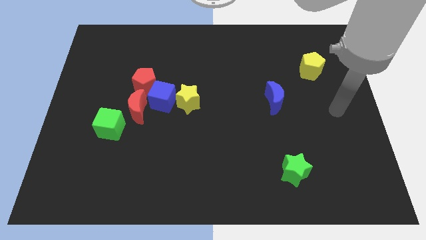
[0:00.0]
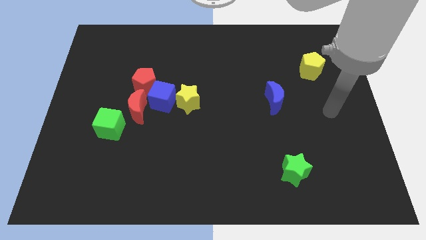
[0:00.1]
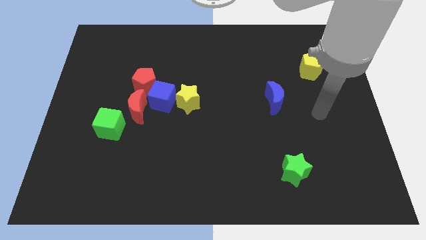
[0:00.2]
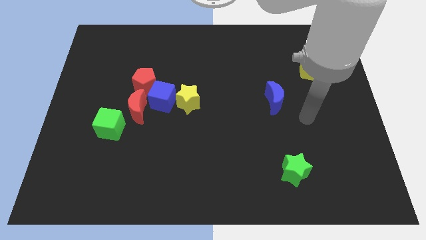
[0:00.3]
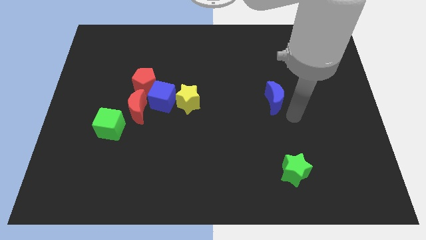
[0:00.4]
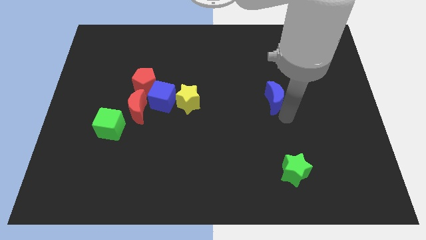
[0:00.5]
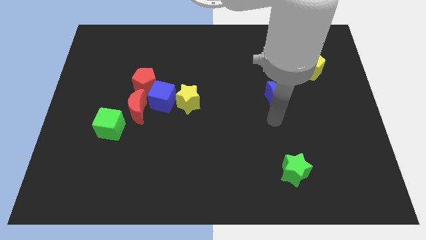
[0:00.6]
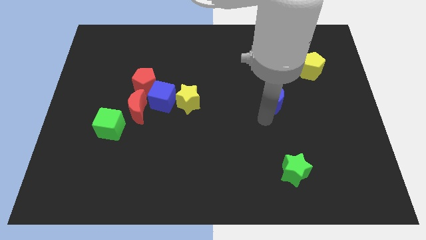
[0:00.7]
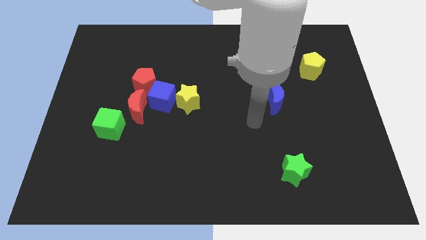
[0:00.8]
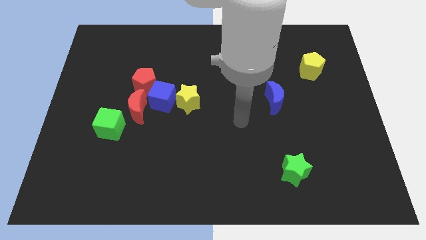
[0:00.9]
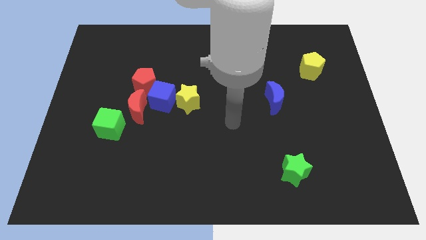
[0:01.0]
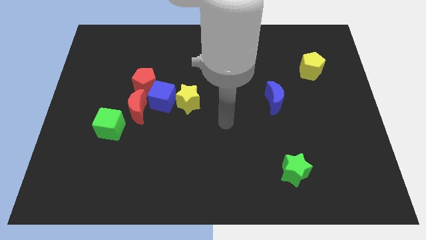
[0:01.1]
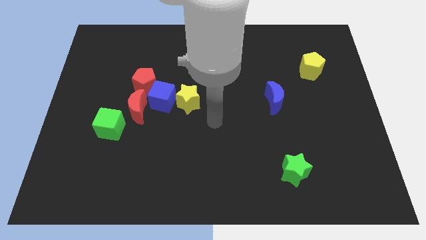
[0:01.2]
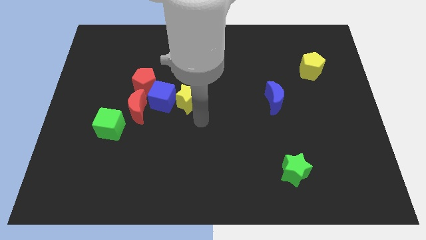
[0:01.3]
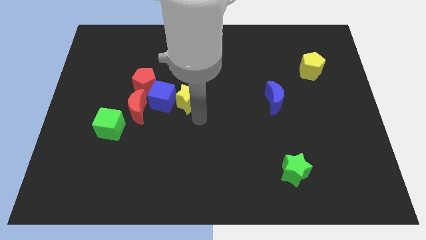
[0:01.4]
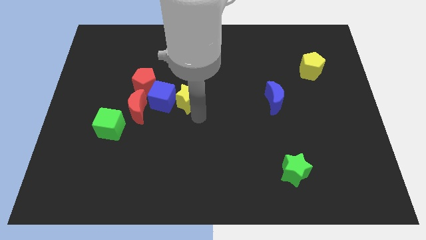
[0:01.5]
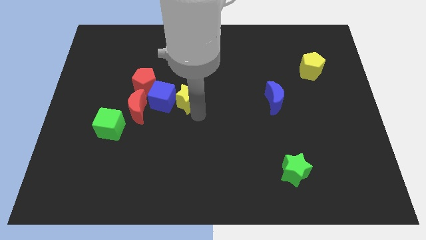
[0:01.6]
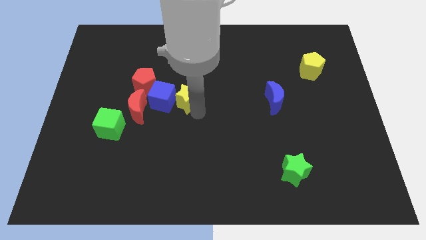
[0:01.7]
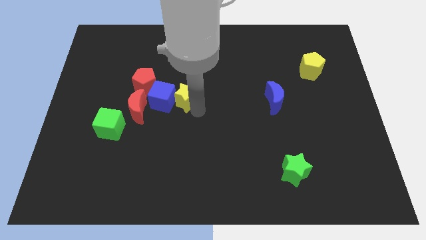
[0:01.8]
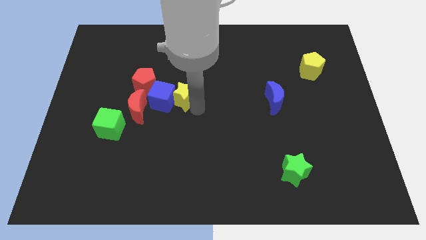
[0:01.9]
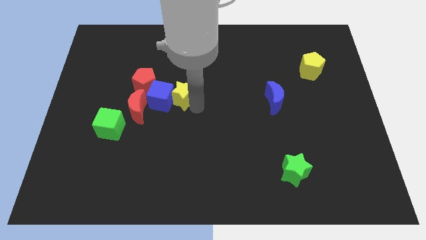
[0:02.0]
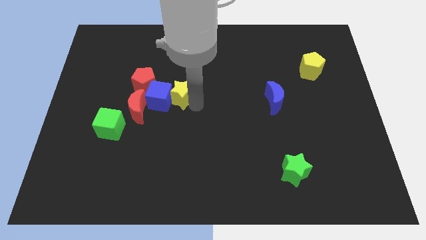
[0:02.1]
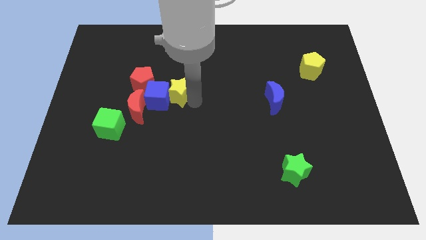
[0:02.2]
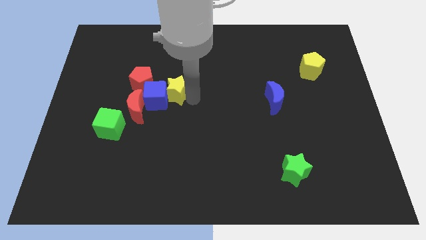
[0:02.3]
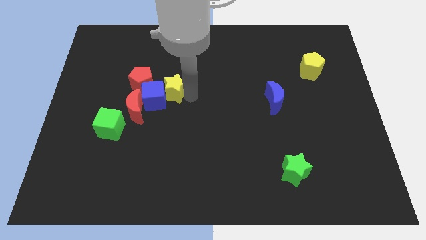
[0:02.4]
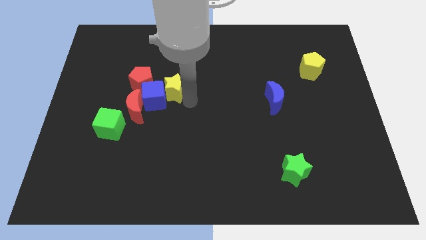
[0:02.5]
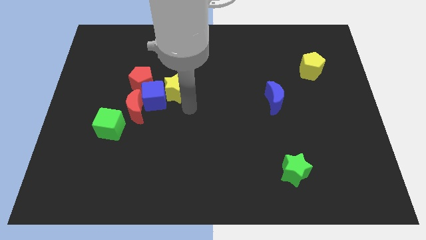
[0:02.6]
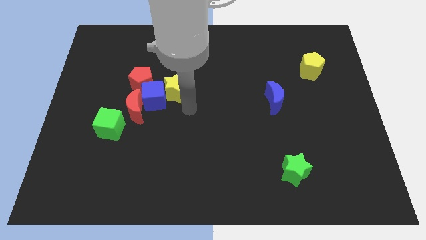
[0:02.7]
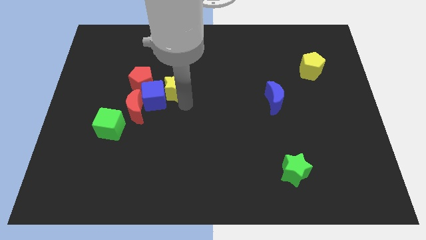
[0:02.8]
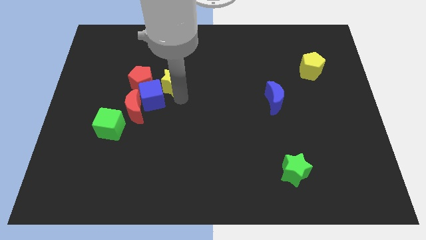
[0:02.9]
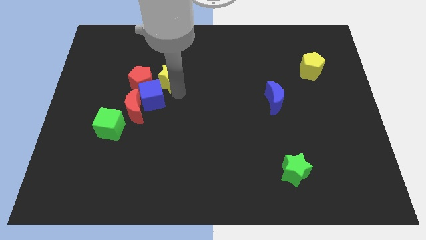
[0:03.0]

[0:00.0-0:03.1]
slightly move the yellow star up and then left

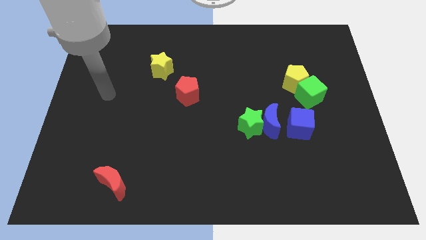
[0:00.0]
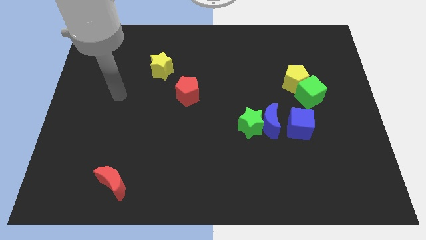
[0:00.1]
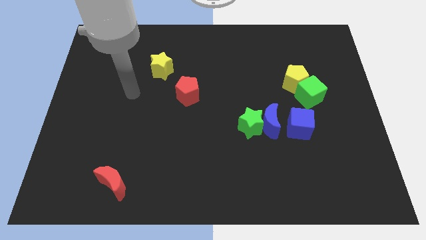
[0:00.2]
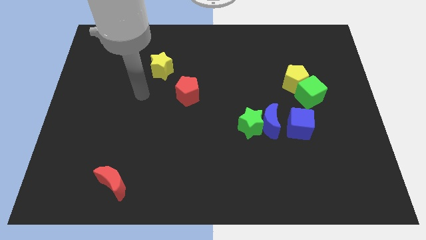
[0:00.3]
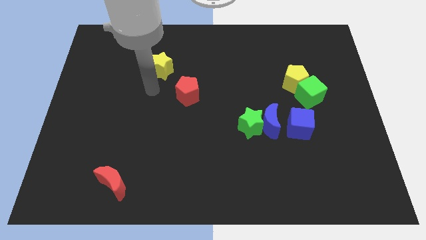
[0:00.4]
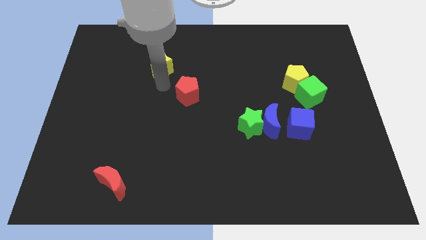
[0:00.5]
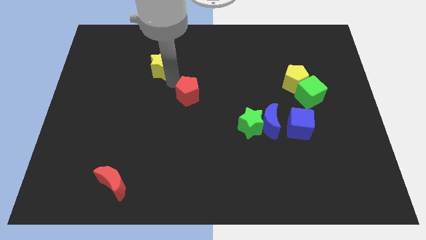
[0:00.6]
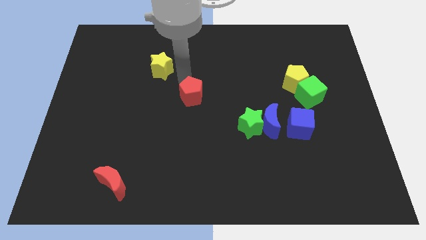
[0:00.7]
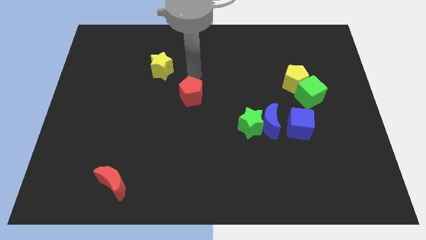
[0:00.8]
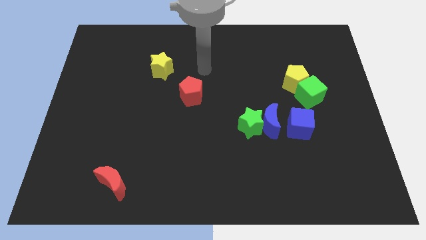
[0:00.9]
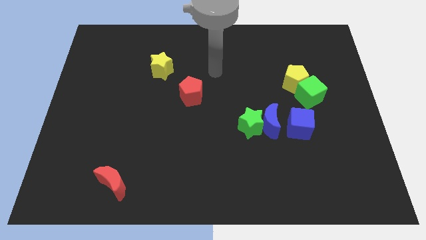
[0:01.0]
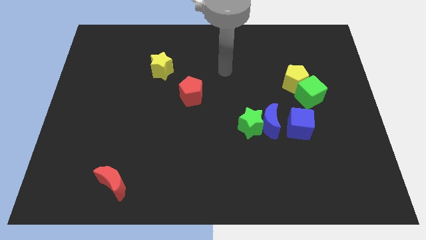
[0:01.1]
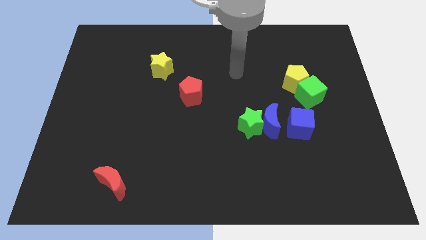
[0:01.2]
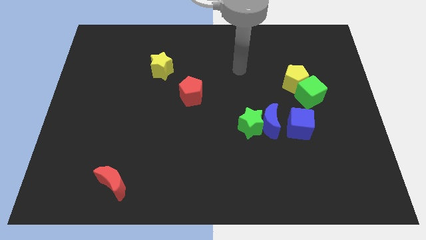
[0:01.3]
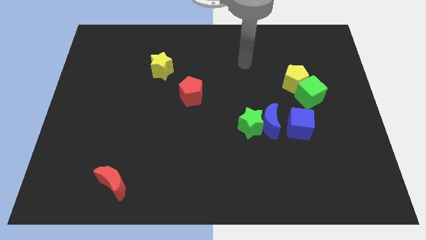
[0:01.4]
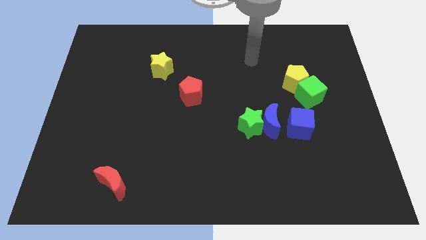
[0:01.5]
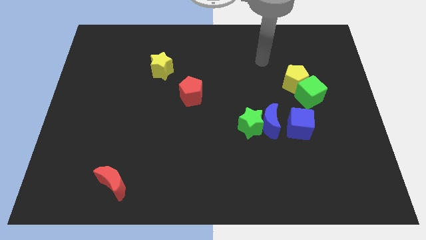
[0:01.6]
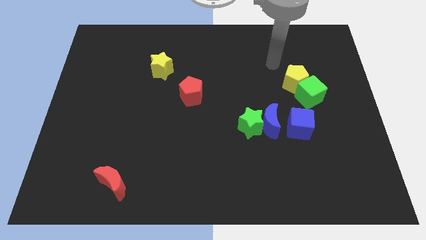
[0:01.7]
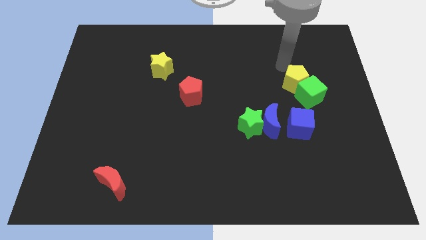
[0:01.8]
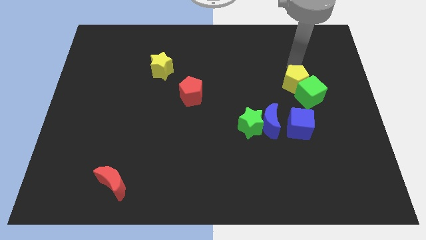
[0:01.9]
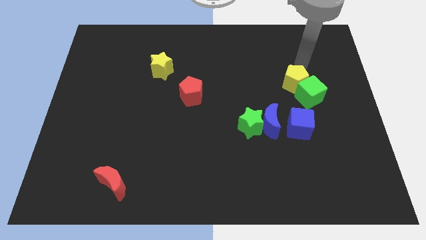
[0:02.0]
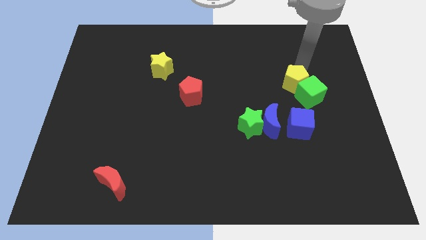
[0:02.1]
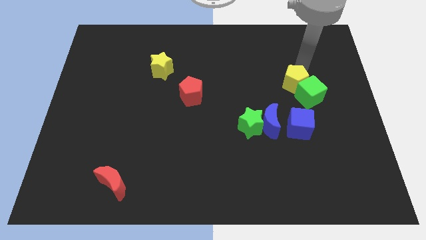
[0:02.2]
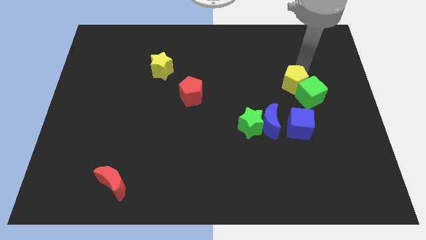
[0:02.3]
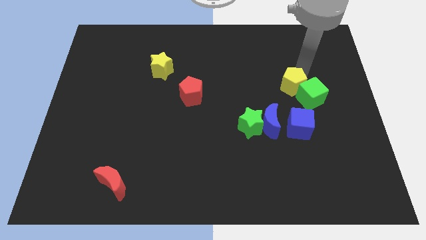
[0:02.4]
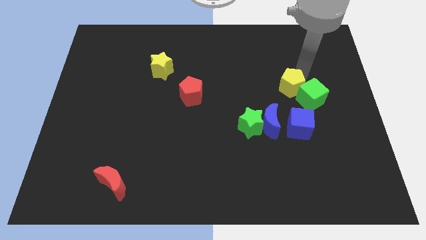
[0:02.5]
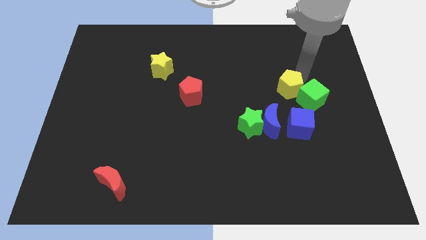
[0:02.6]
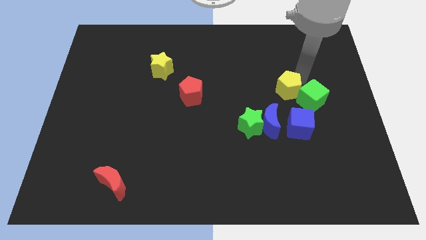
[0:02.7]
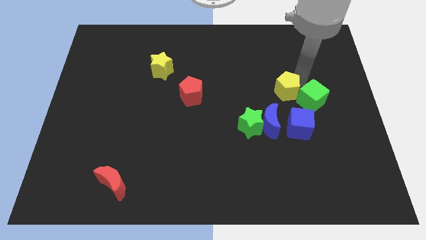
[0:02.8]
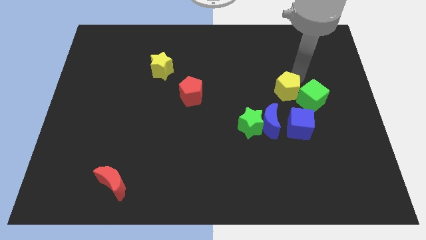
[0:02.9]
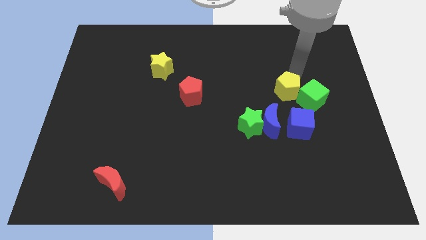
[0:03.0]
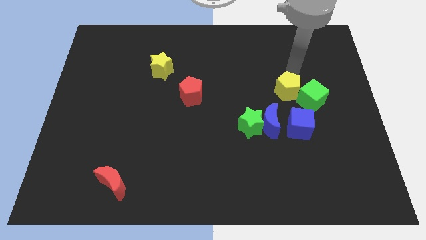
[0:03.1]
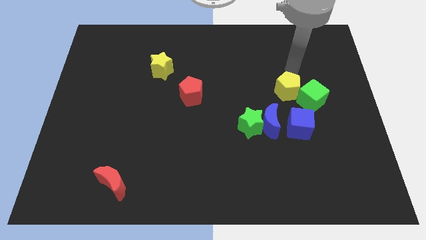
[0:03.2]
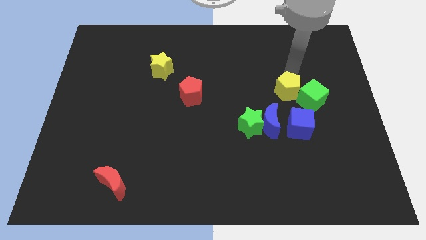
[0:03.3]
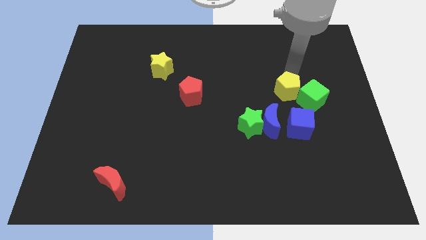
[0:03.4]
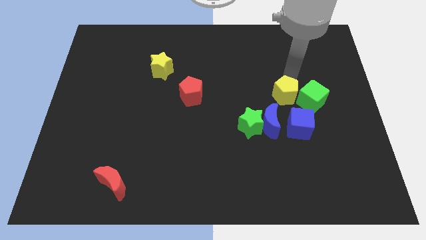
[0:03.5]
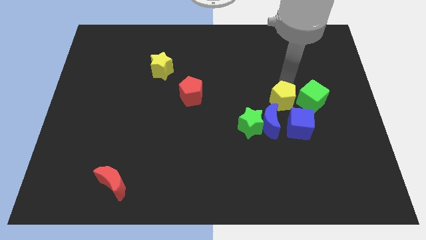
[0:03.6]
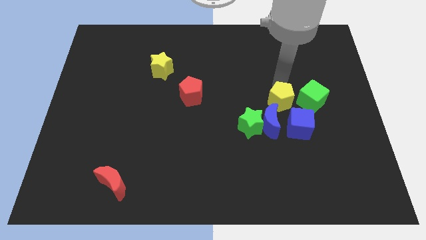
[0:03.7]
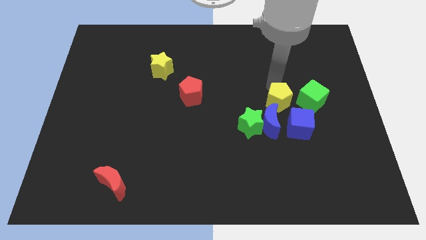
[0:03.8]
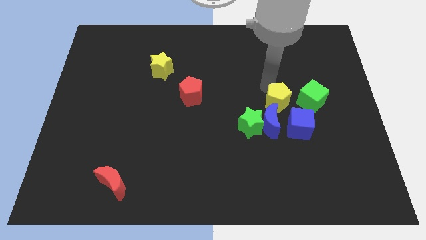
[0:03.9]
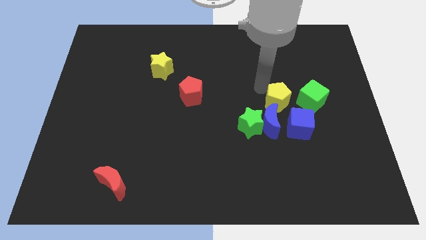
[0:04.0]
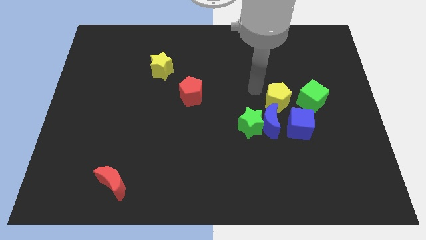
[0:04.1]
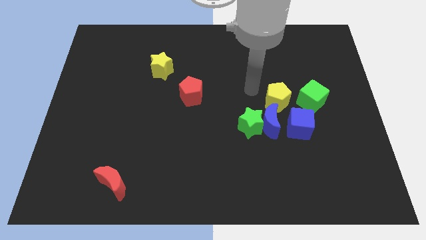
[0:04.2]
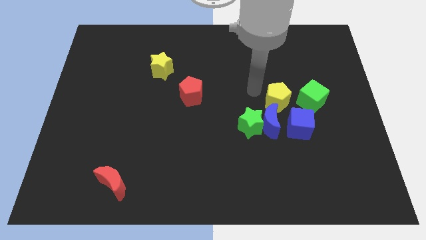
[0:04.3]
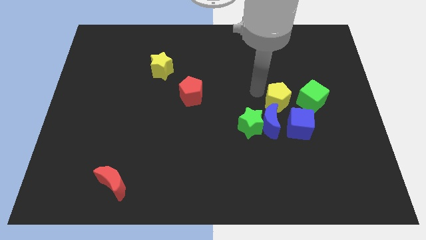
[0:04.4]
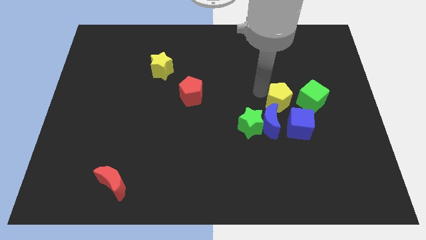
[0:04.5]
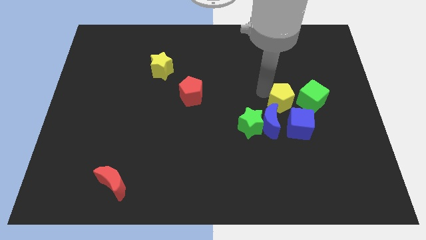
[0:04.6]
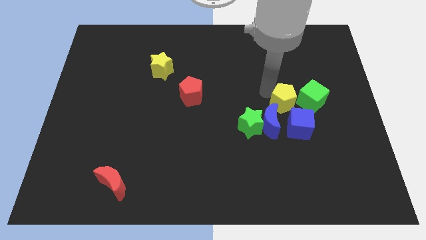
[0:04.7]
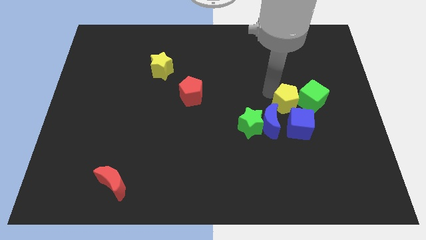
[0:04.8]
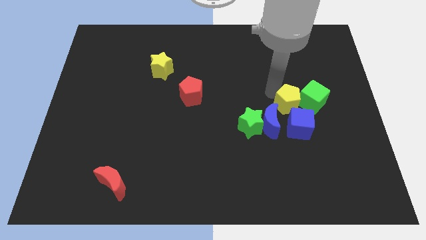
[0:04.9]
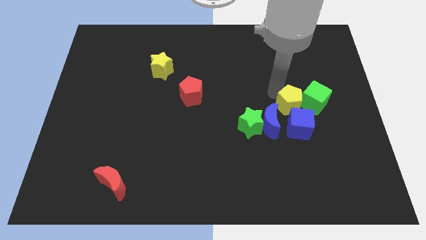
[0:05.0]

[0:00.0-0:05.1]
push the yellow pentagon slightly down

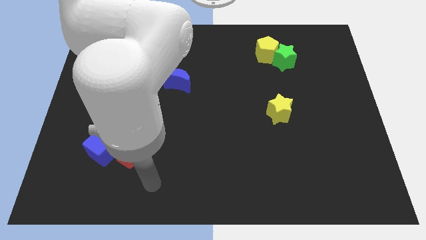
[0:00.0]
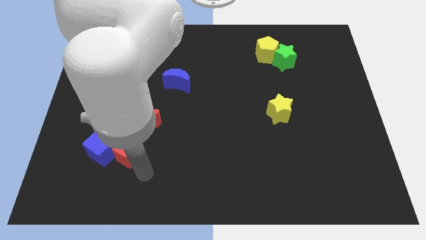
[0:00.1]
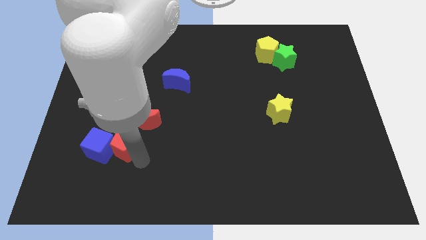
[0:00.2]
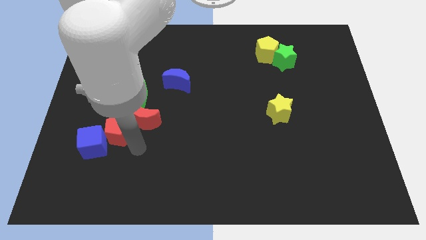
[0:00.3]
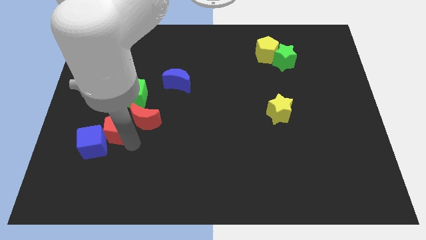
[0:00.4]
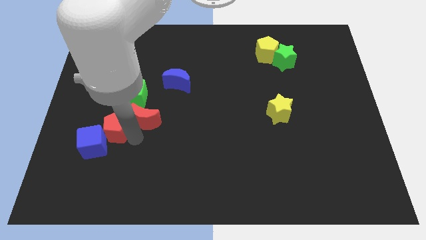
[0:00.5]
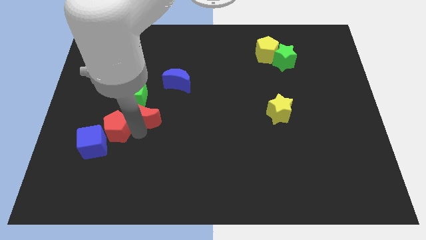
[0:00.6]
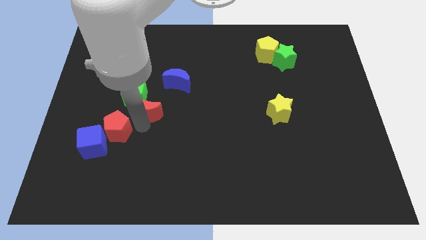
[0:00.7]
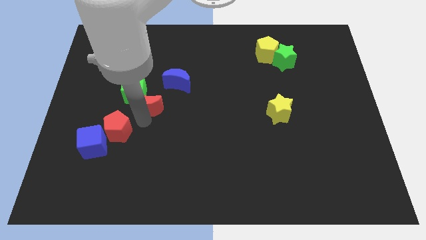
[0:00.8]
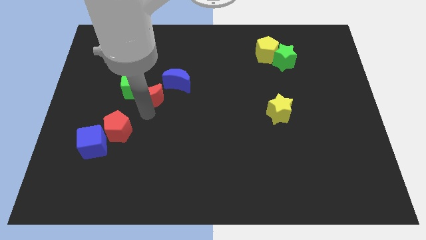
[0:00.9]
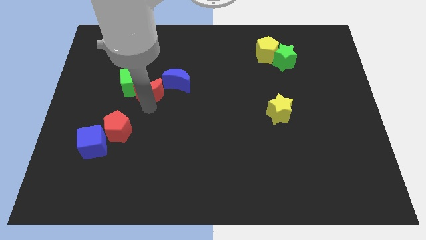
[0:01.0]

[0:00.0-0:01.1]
slide the red moon somewhat up
